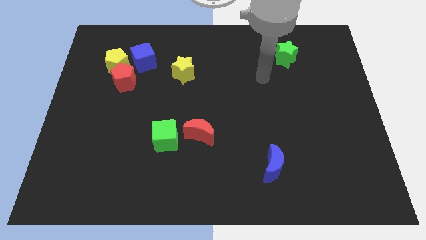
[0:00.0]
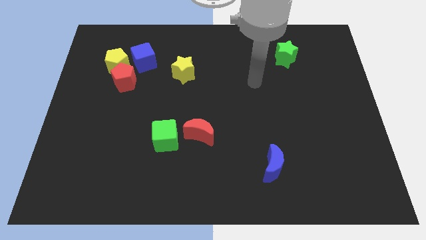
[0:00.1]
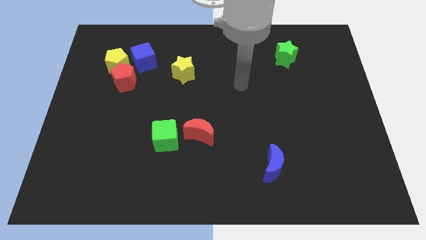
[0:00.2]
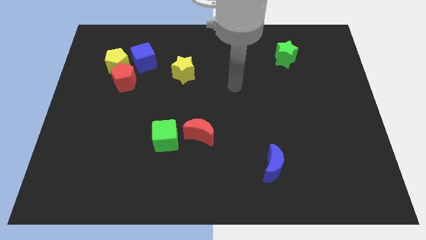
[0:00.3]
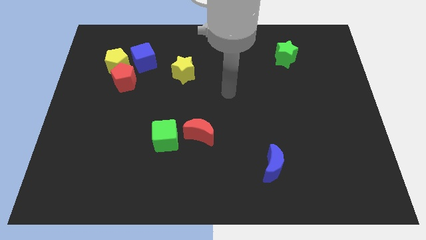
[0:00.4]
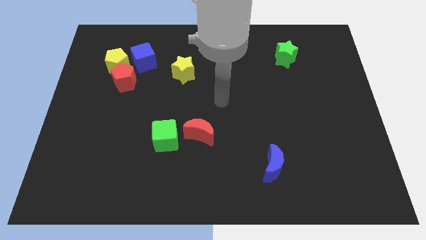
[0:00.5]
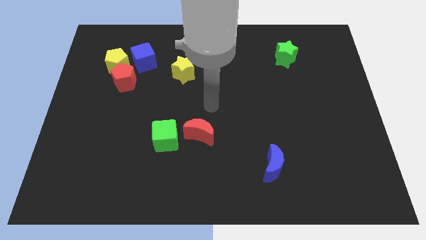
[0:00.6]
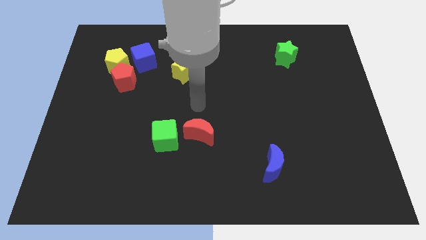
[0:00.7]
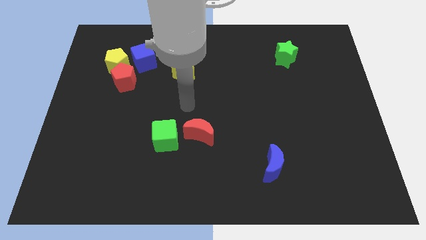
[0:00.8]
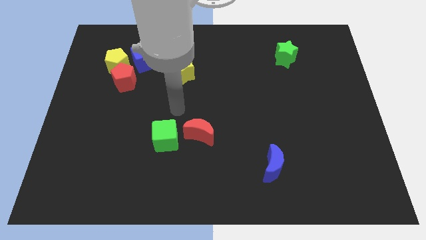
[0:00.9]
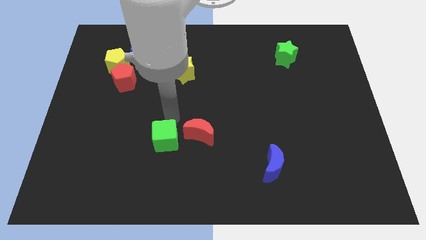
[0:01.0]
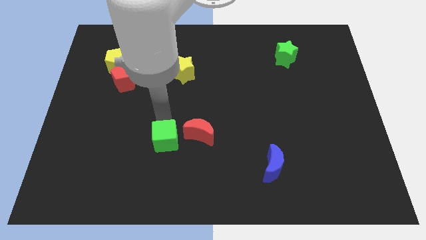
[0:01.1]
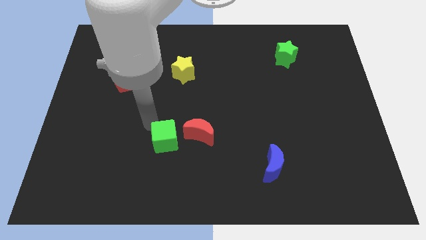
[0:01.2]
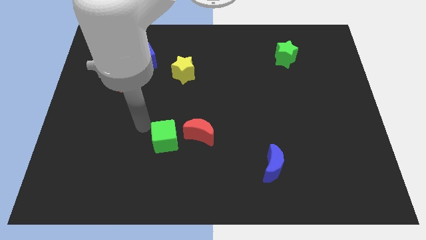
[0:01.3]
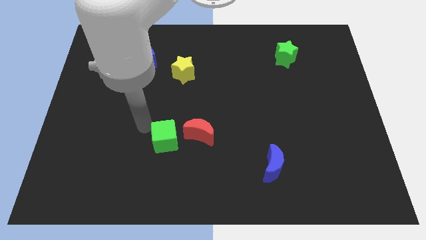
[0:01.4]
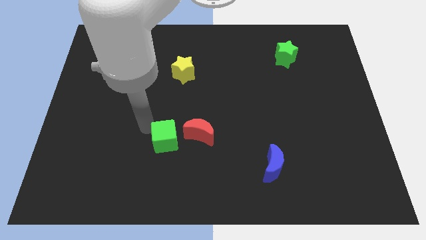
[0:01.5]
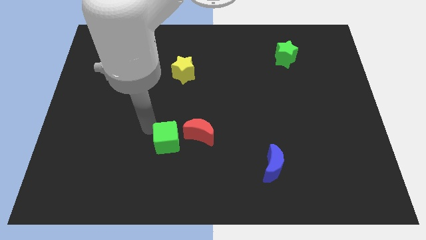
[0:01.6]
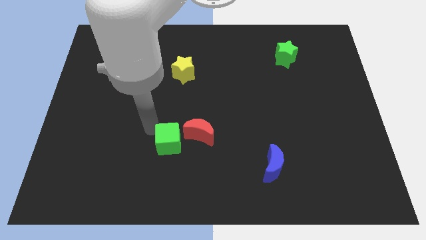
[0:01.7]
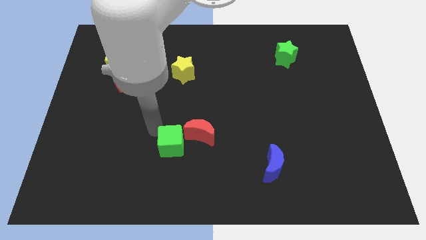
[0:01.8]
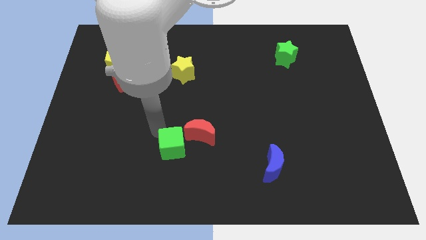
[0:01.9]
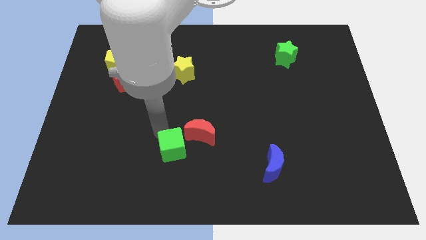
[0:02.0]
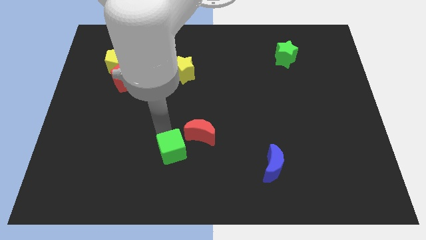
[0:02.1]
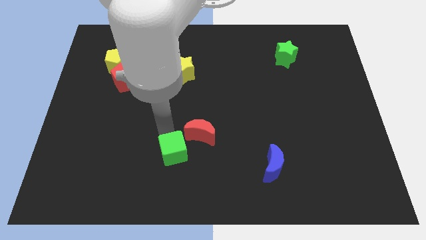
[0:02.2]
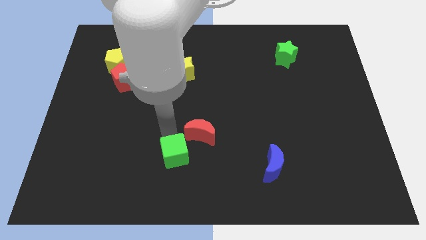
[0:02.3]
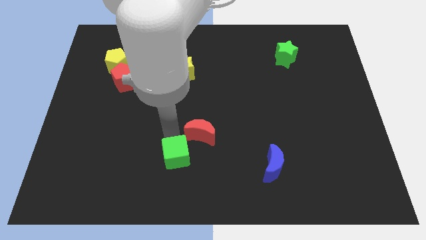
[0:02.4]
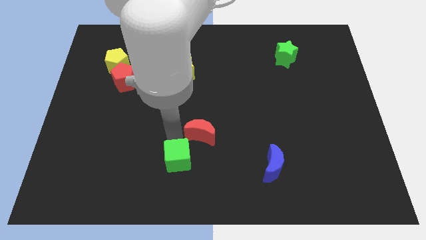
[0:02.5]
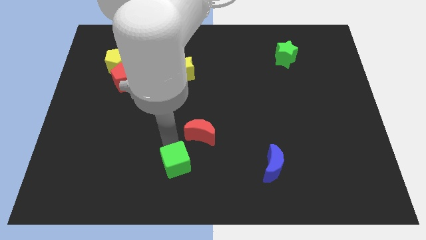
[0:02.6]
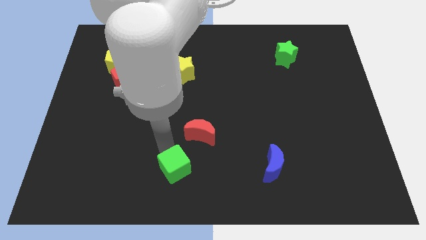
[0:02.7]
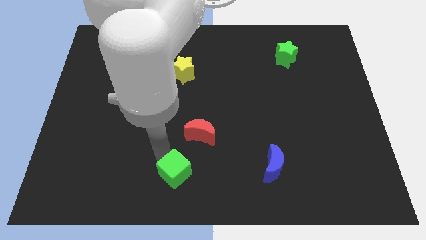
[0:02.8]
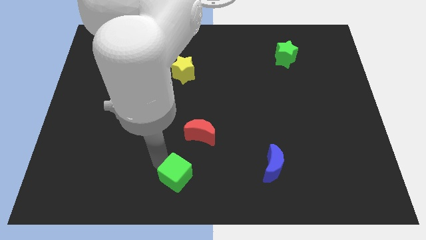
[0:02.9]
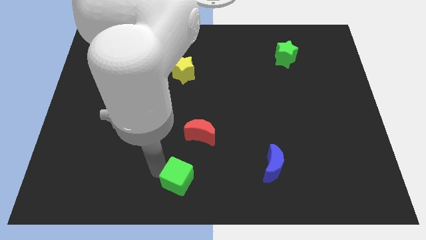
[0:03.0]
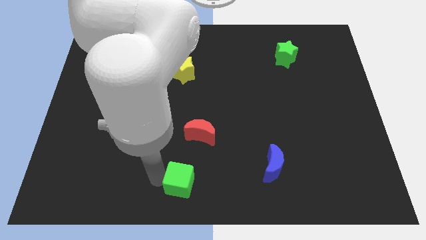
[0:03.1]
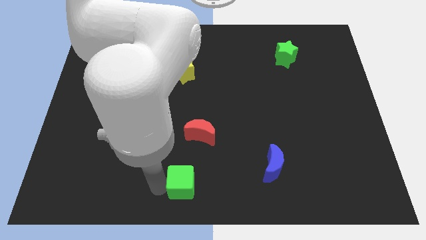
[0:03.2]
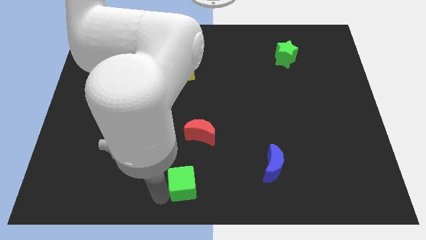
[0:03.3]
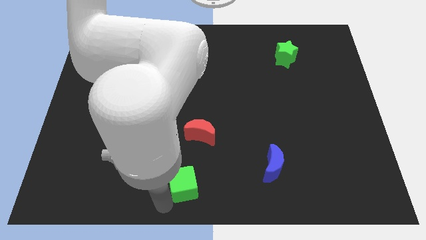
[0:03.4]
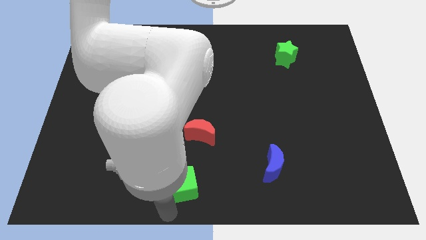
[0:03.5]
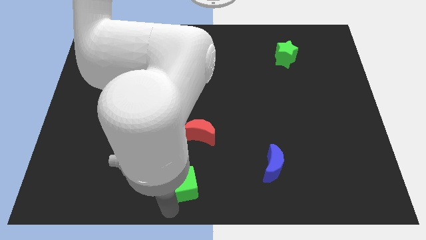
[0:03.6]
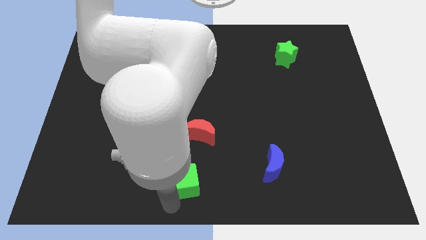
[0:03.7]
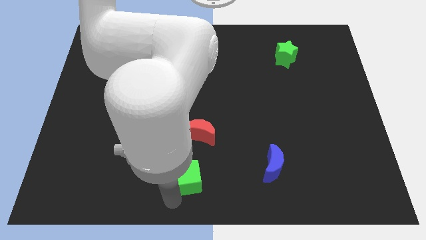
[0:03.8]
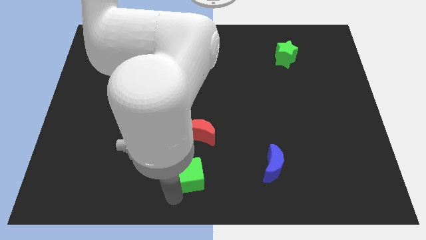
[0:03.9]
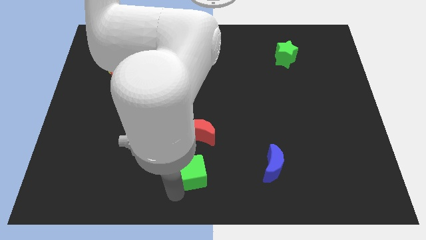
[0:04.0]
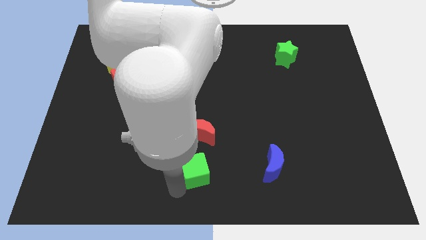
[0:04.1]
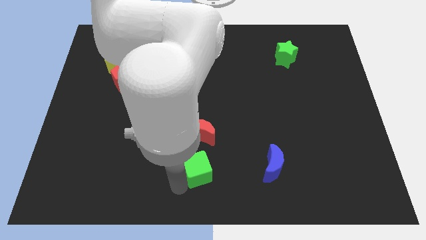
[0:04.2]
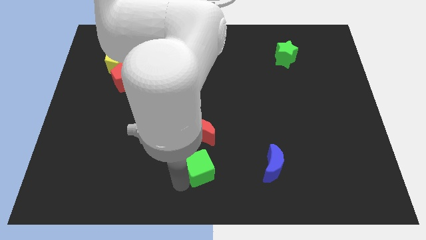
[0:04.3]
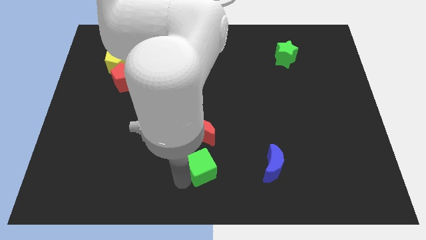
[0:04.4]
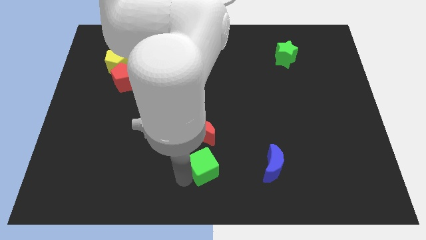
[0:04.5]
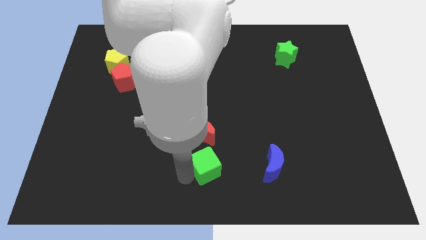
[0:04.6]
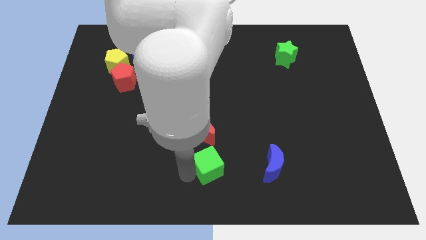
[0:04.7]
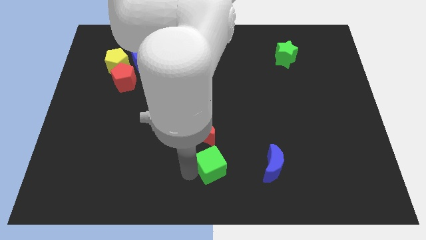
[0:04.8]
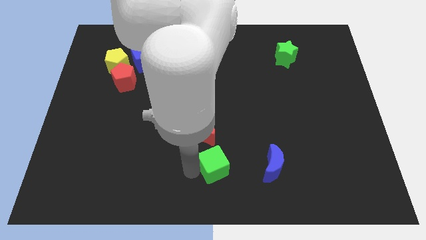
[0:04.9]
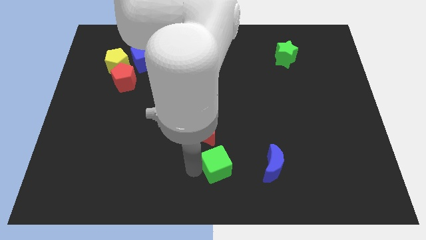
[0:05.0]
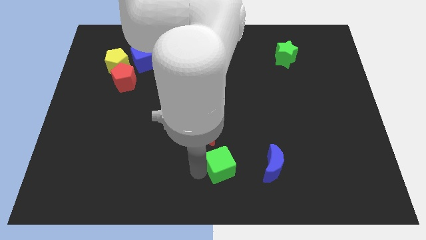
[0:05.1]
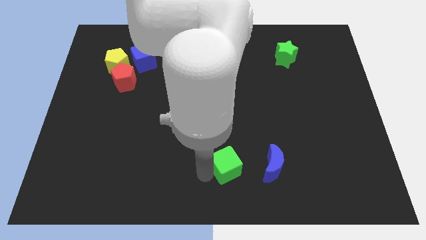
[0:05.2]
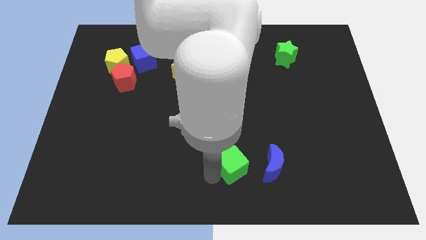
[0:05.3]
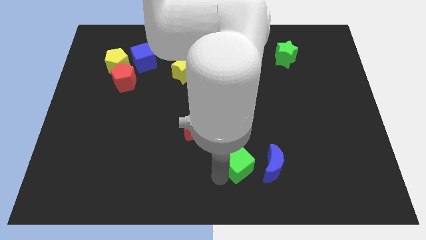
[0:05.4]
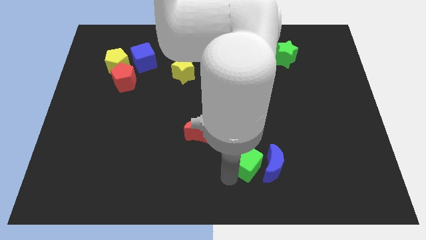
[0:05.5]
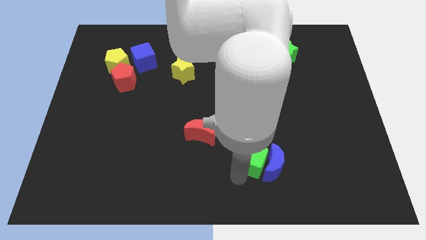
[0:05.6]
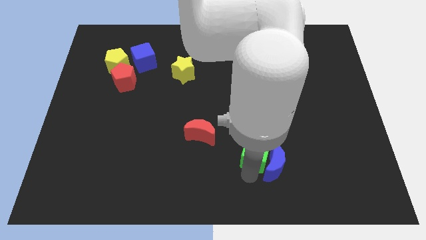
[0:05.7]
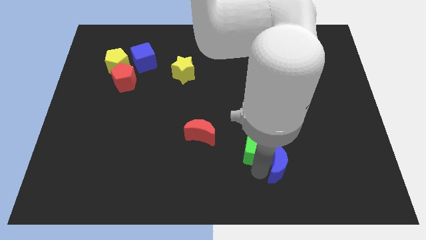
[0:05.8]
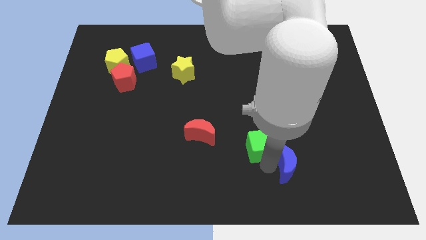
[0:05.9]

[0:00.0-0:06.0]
push the green cube right

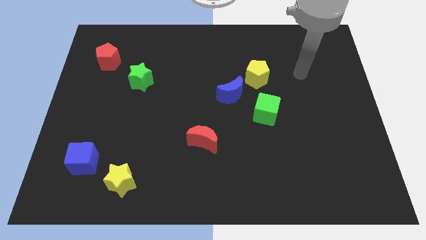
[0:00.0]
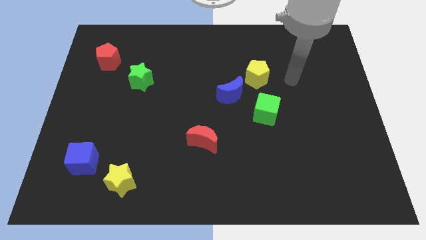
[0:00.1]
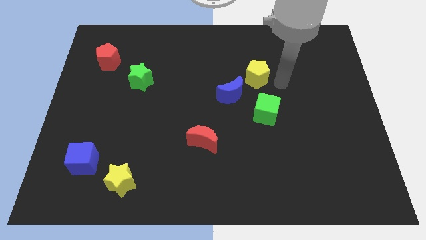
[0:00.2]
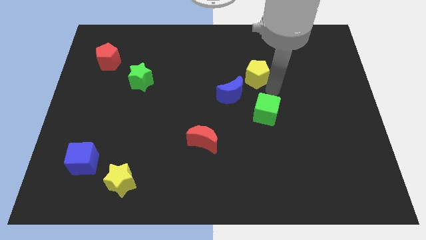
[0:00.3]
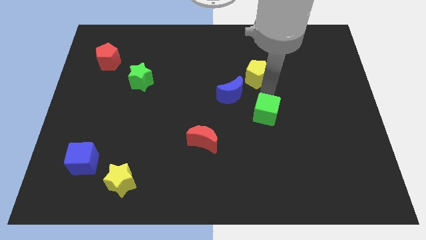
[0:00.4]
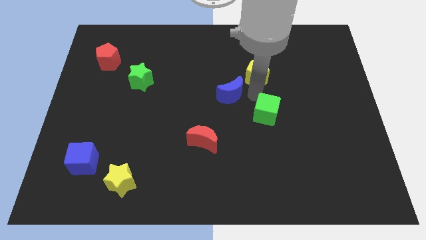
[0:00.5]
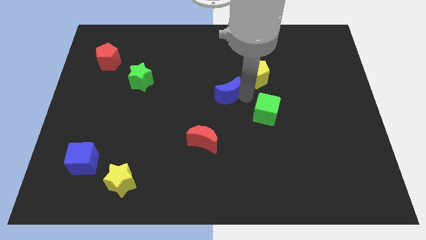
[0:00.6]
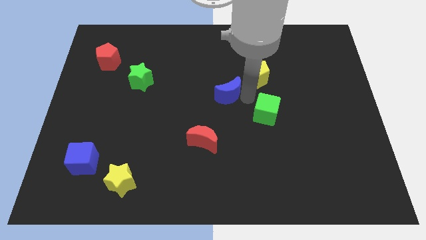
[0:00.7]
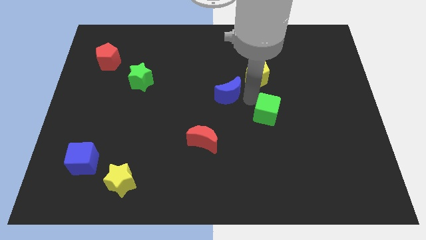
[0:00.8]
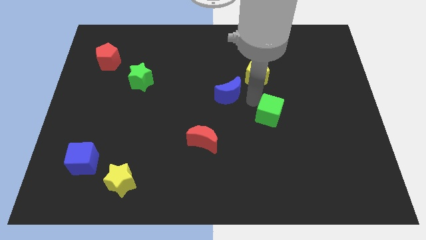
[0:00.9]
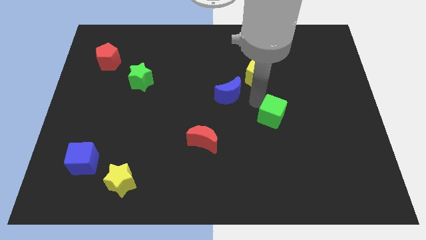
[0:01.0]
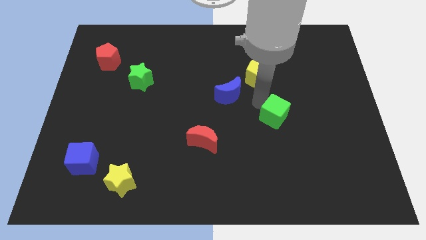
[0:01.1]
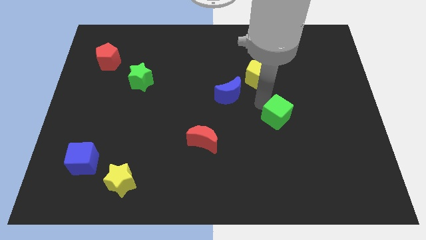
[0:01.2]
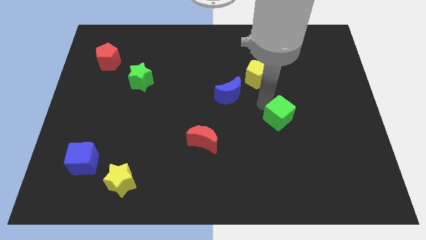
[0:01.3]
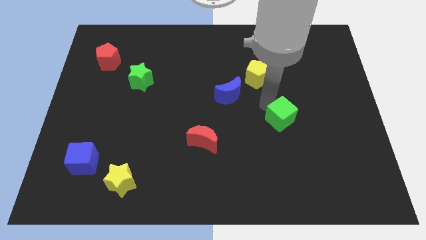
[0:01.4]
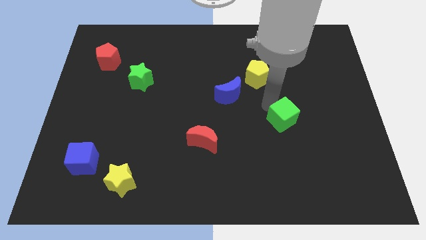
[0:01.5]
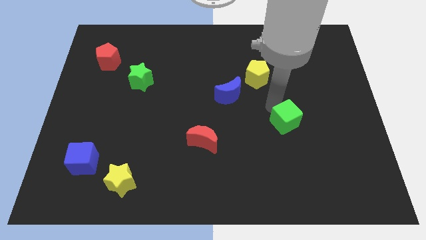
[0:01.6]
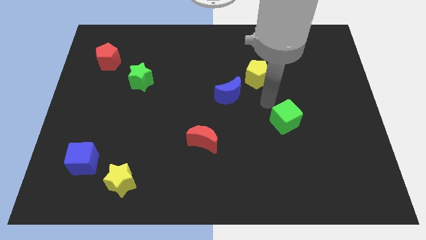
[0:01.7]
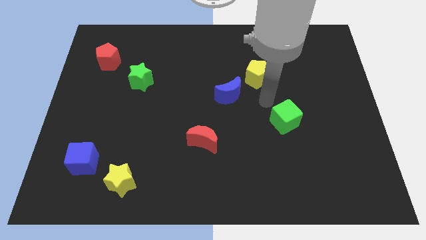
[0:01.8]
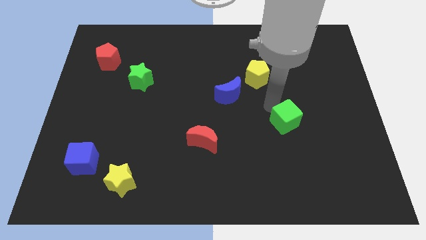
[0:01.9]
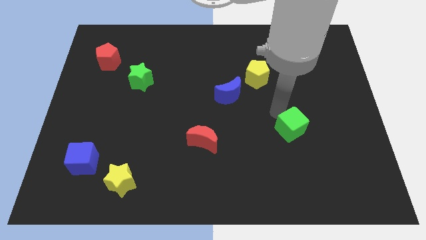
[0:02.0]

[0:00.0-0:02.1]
push the green cube down and right slightly
